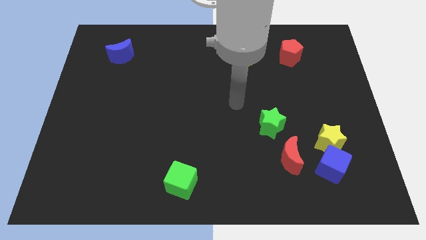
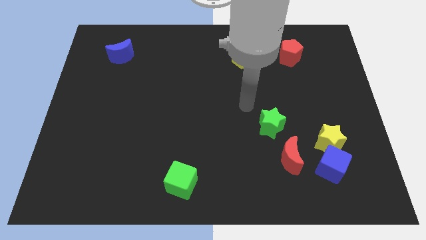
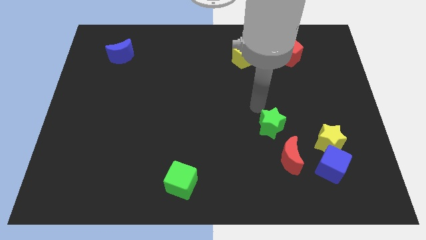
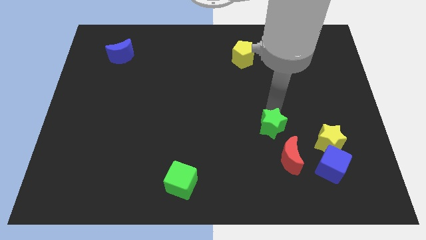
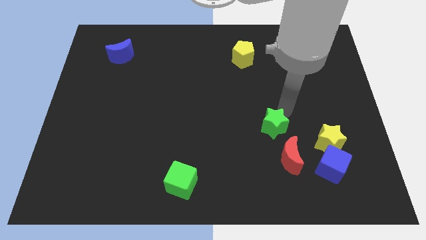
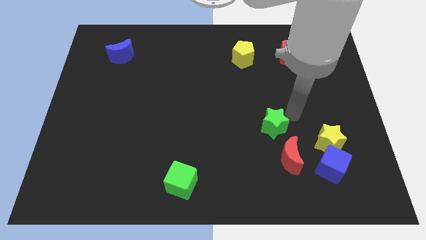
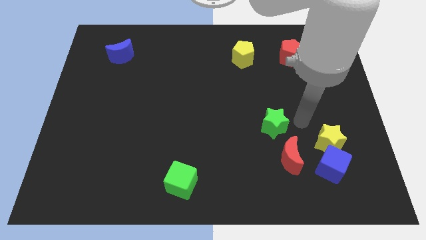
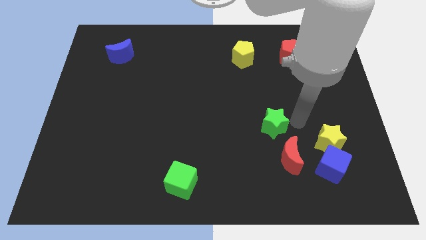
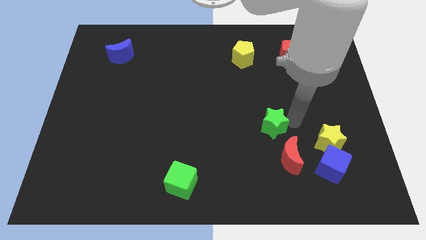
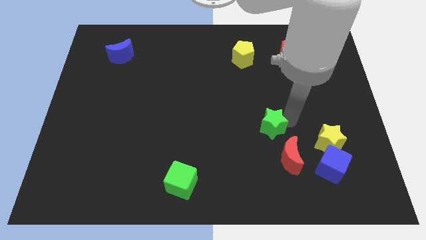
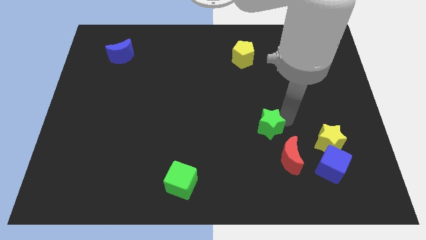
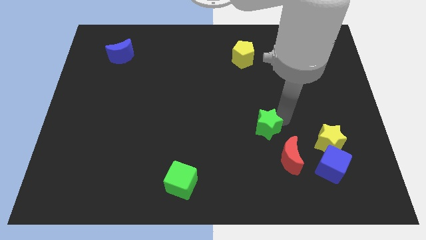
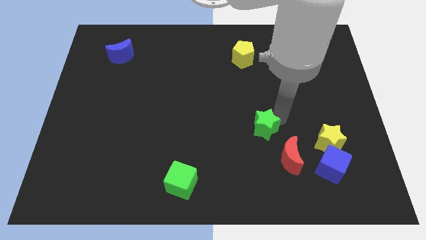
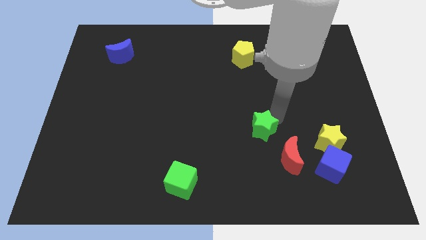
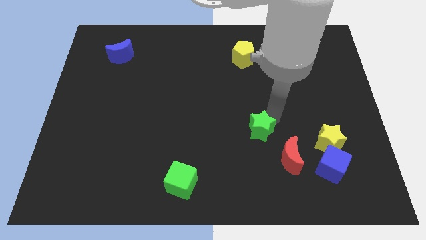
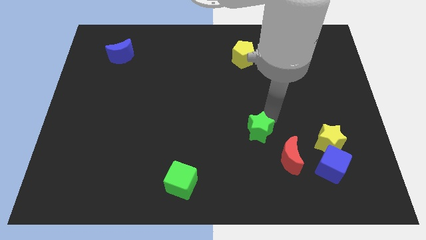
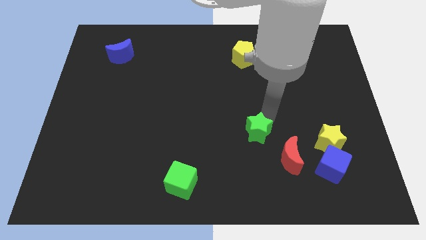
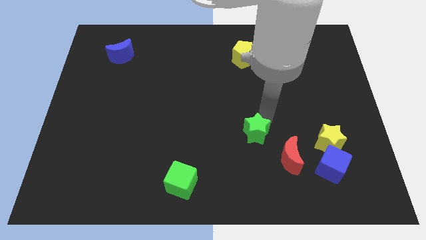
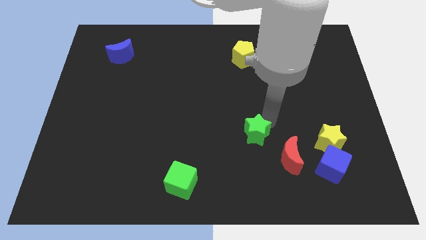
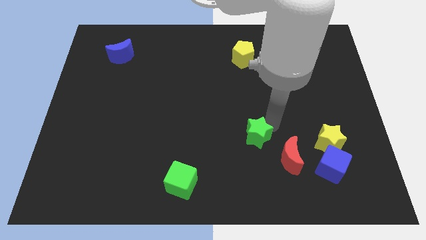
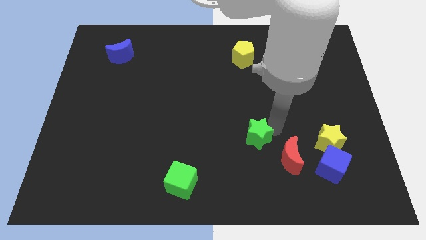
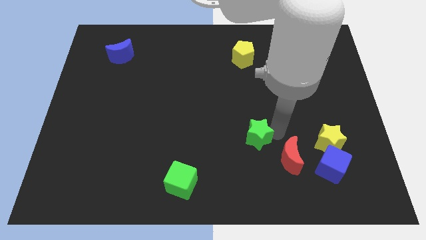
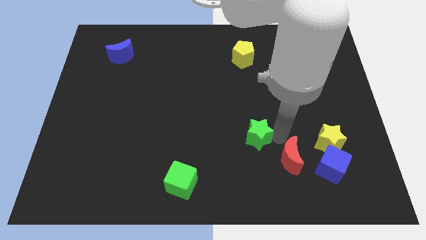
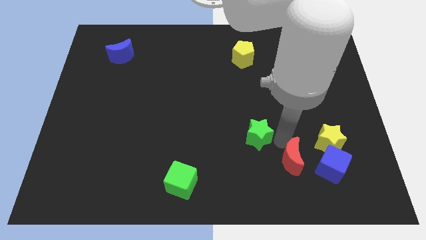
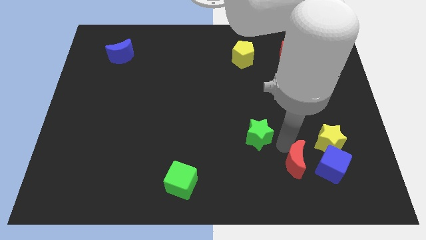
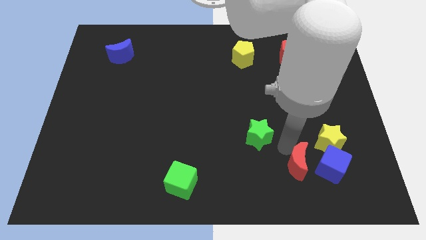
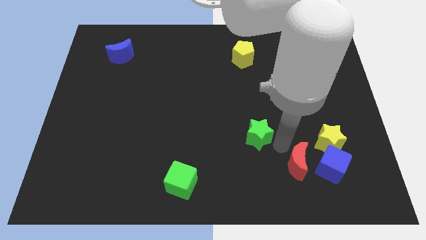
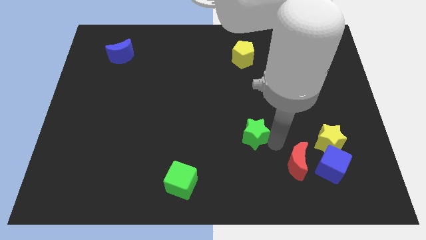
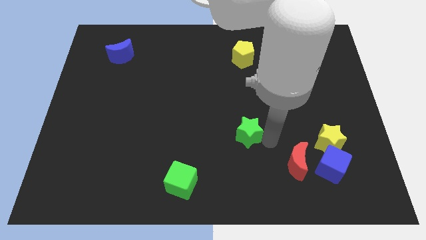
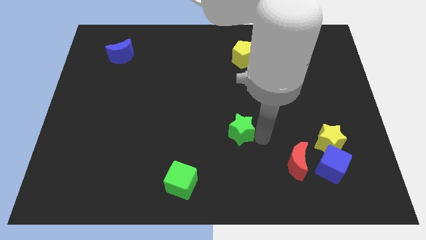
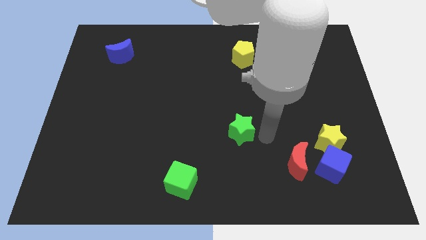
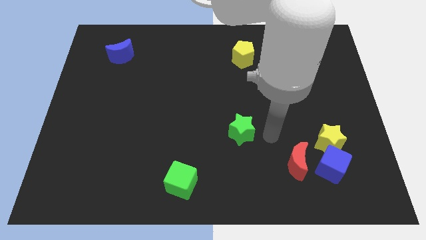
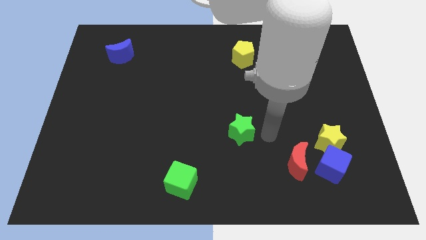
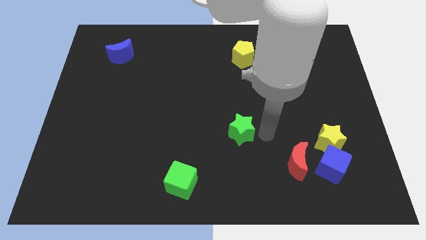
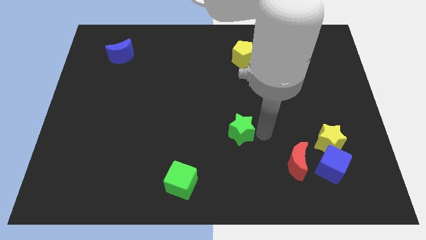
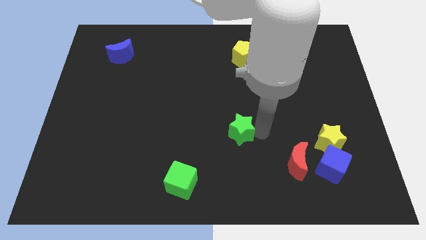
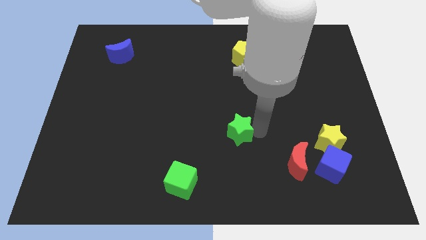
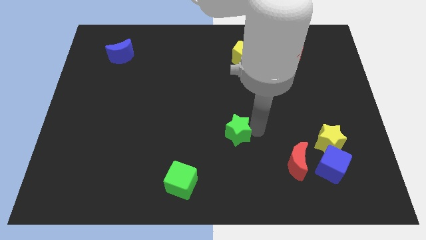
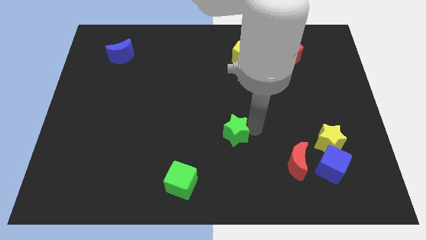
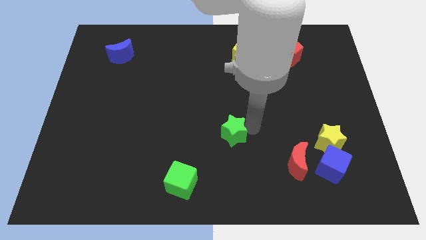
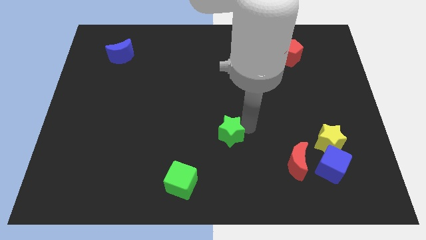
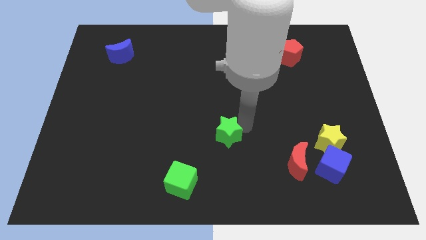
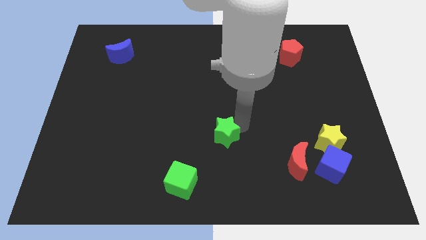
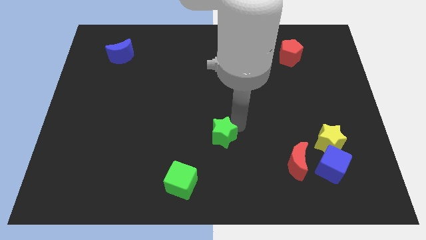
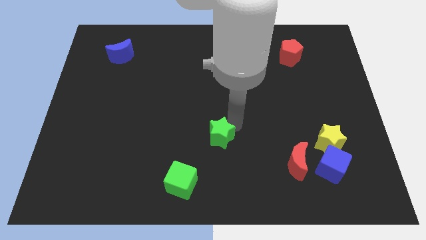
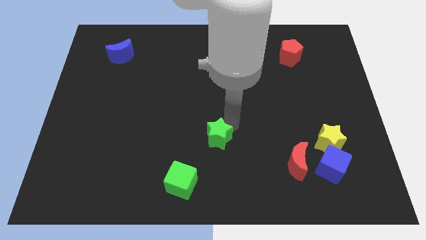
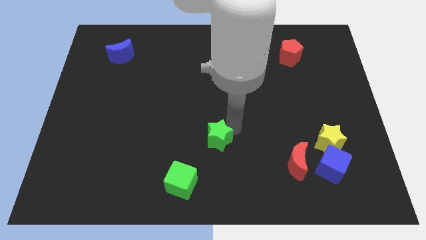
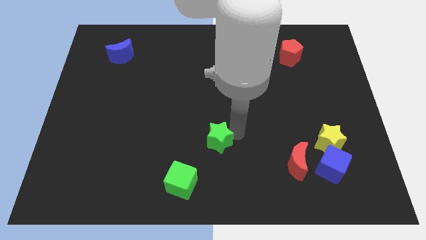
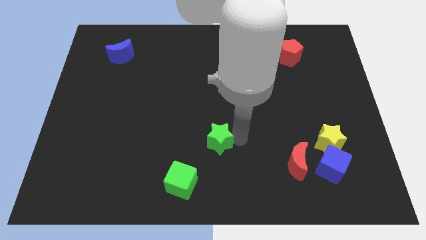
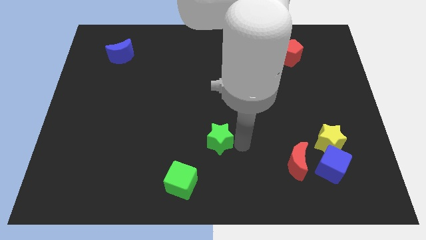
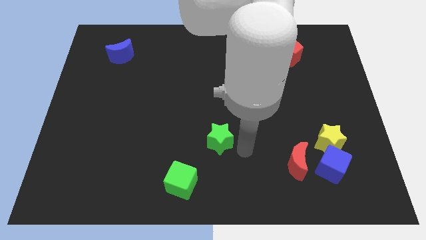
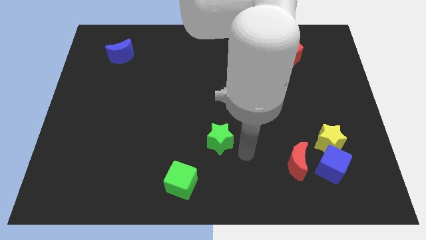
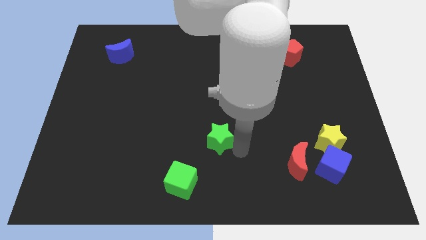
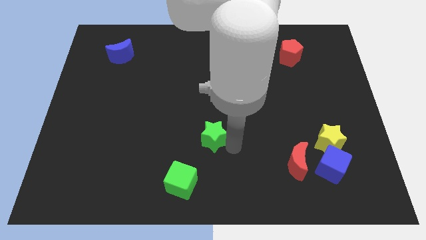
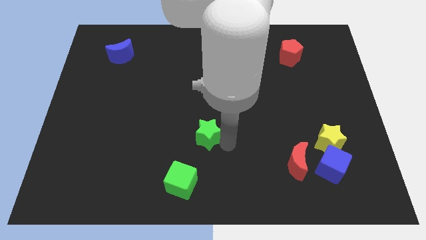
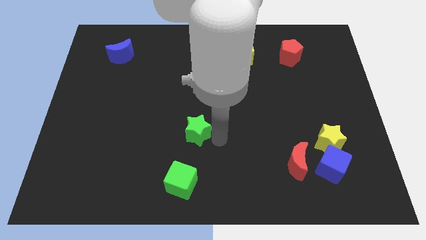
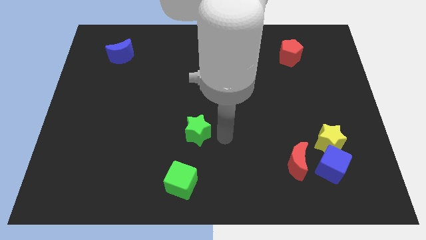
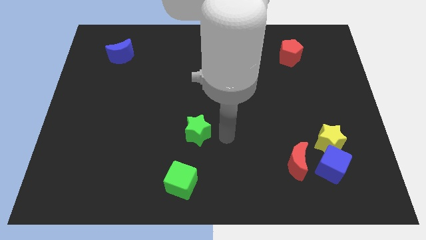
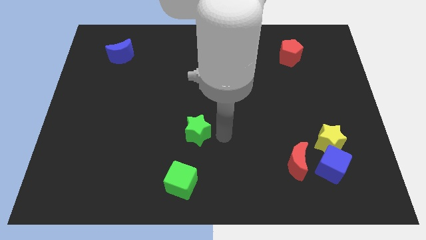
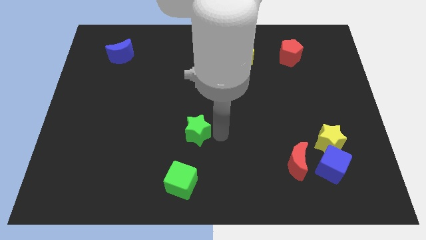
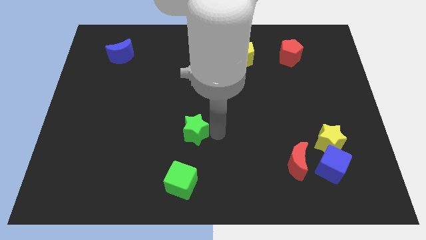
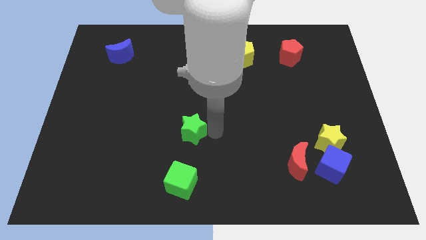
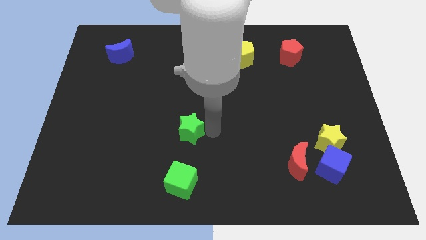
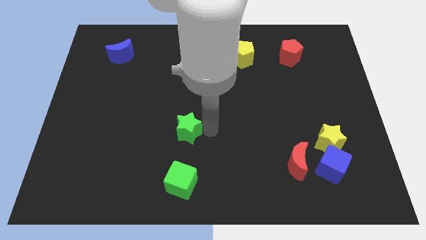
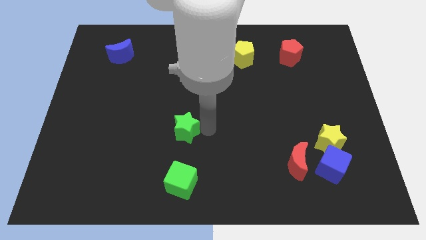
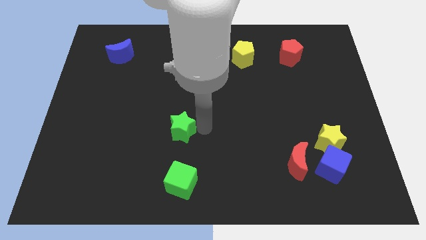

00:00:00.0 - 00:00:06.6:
push the green star to the left

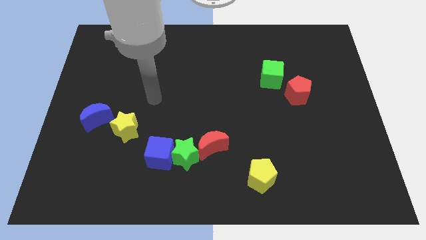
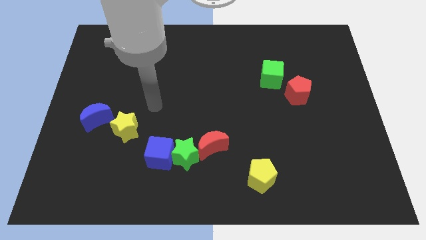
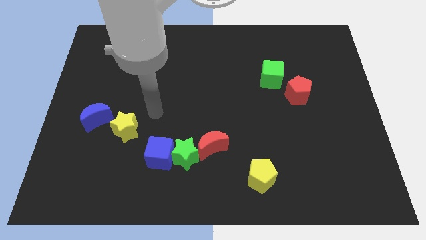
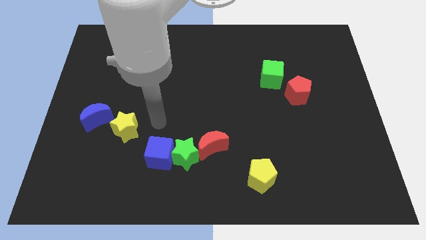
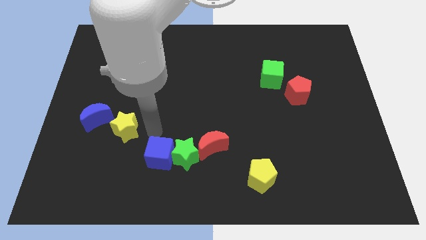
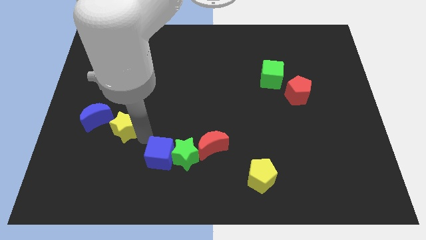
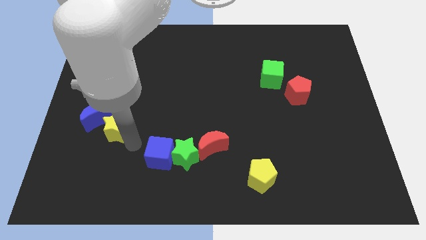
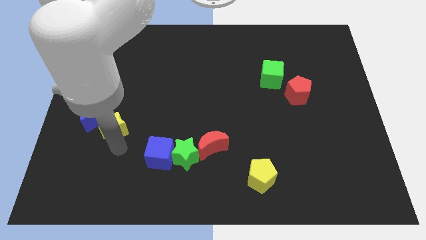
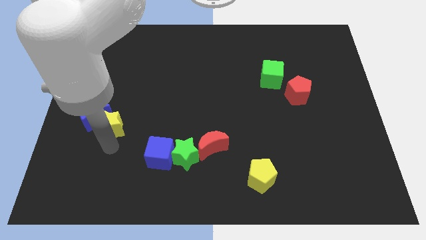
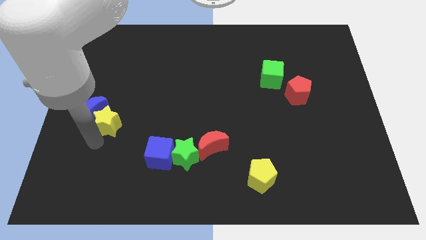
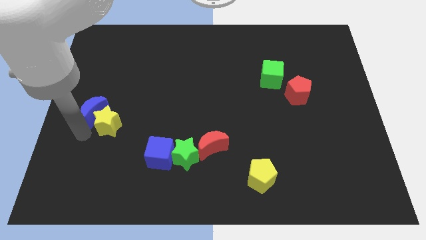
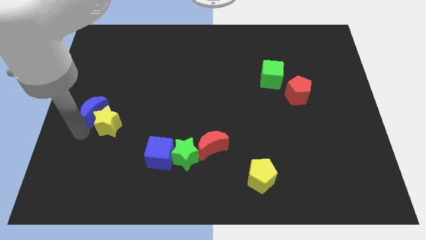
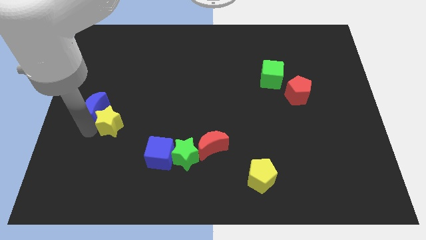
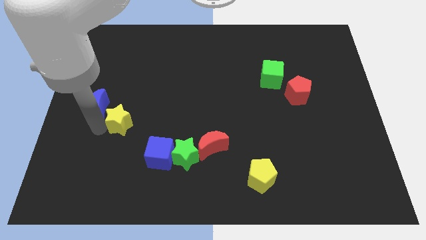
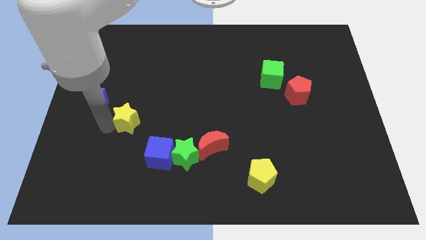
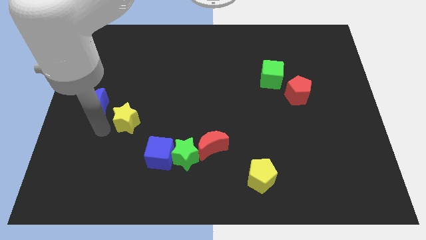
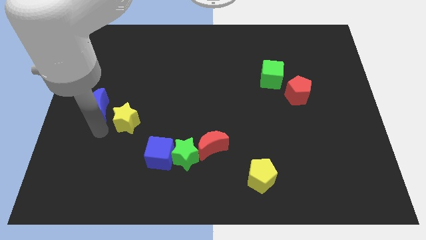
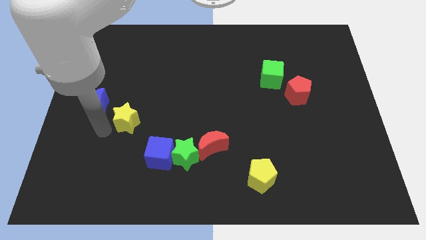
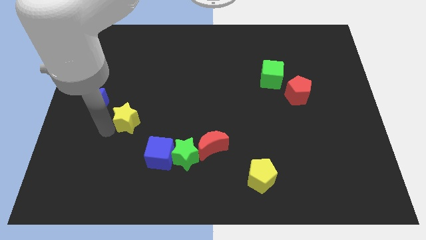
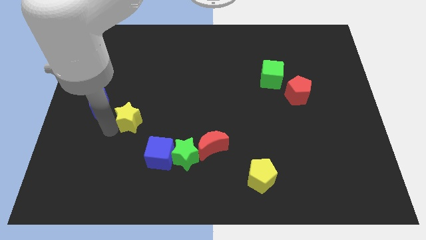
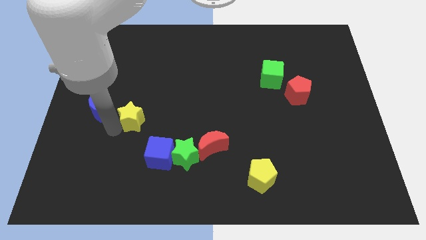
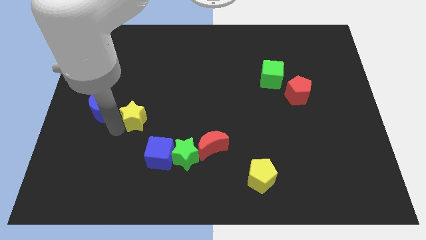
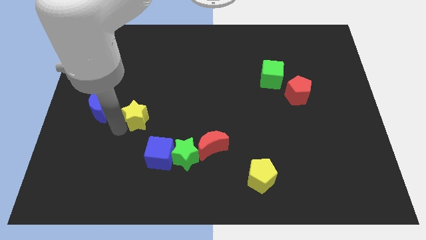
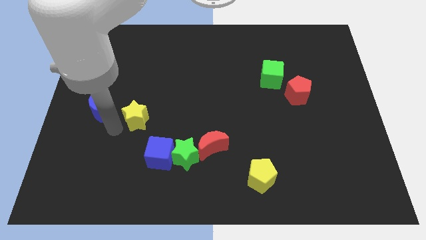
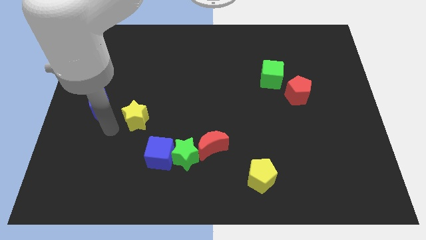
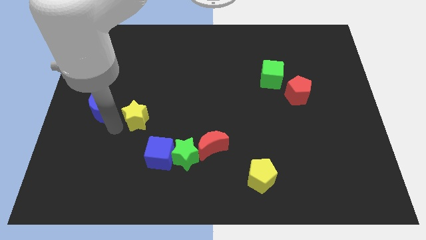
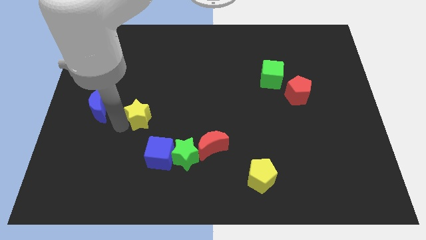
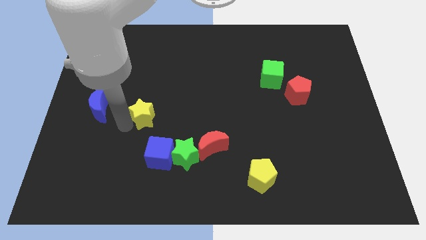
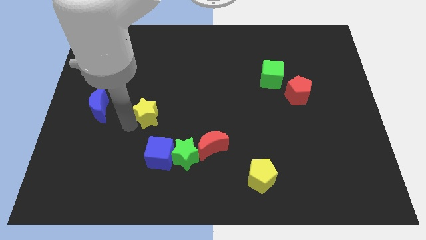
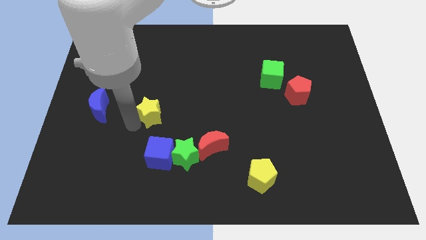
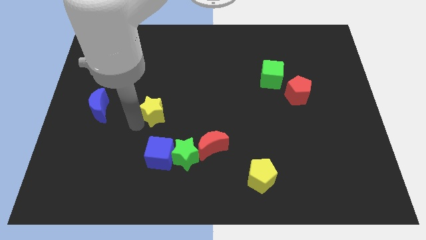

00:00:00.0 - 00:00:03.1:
slide the yellow star up and to the right a little
